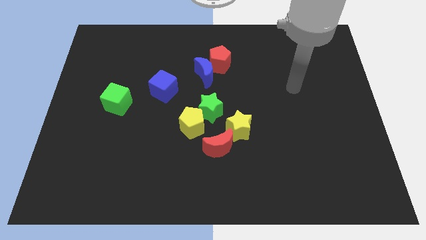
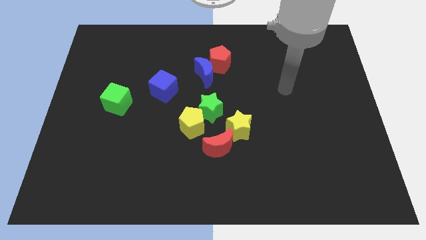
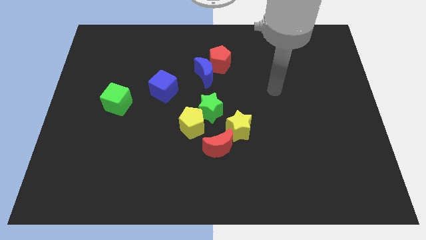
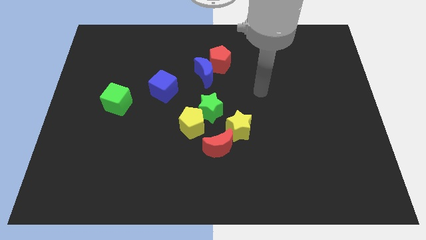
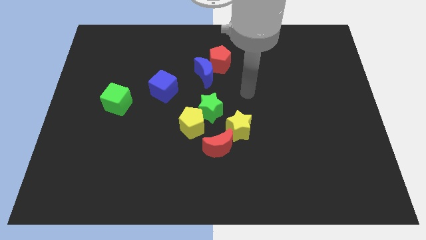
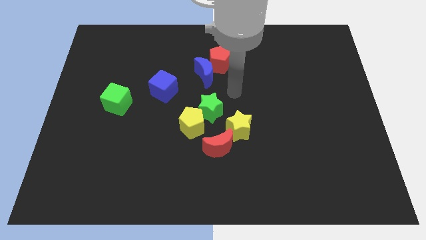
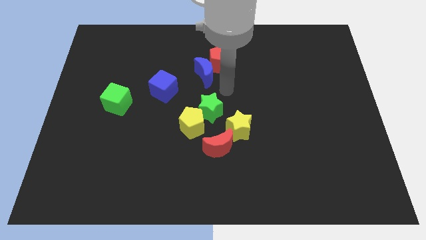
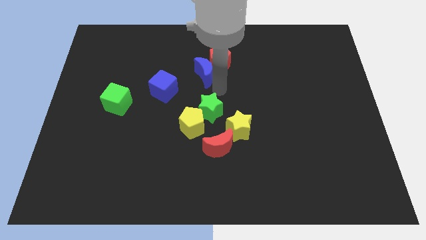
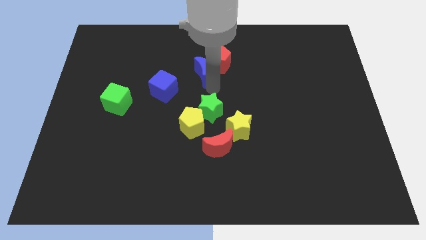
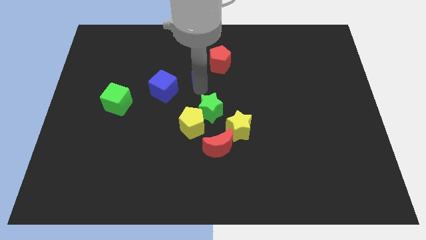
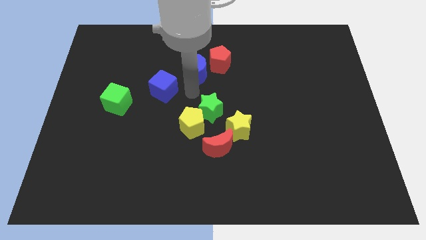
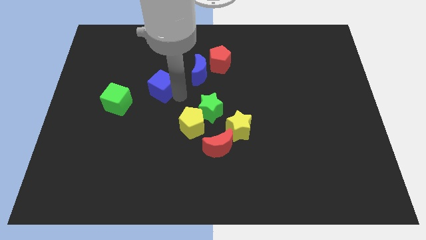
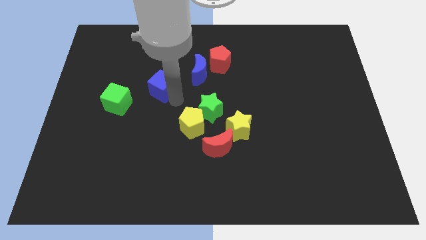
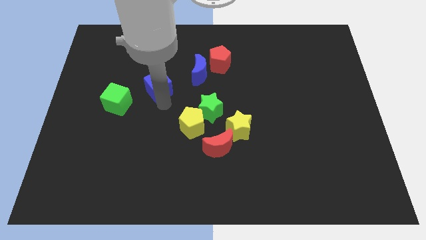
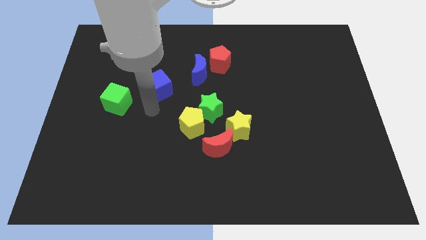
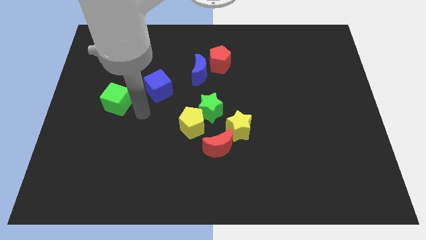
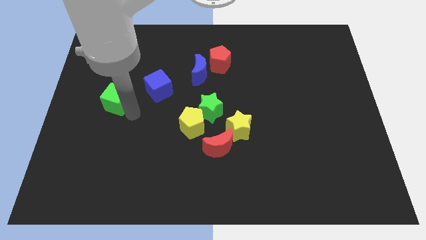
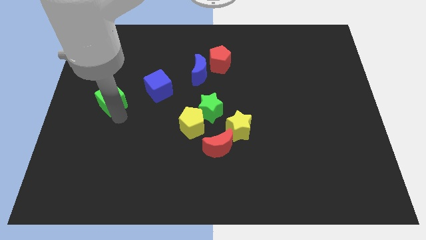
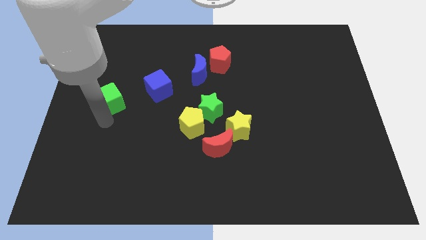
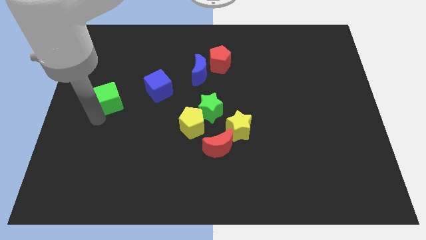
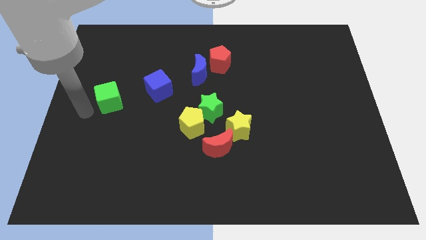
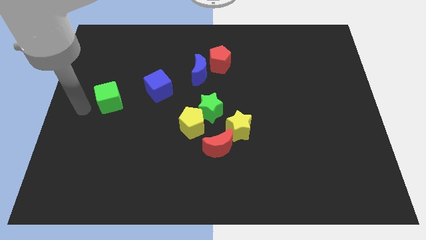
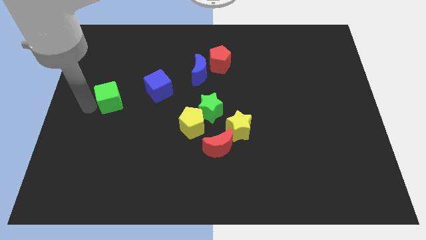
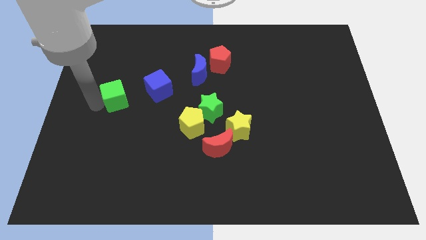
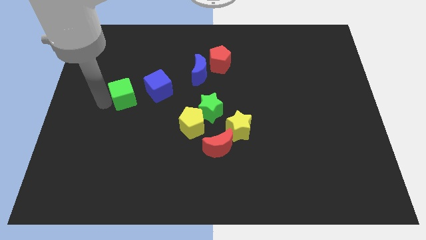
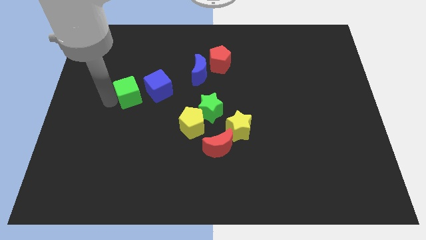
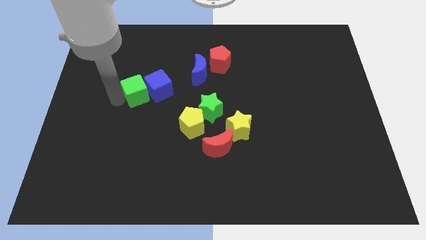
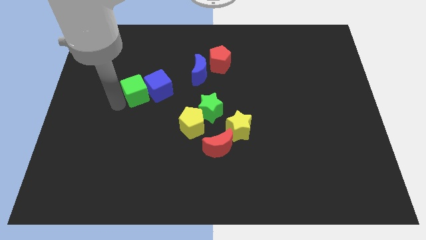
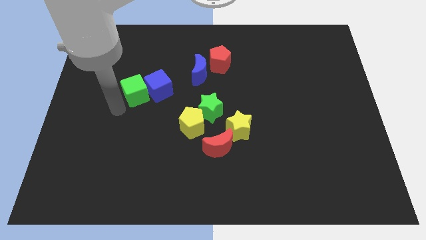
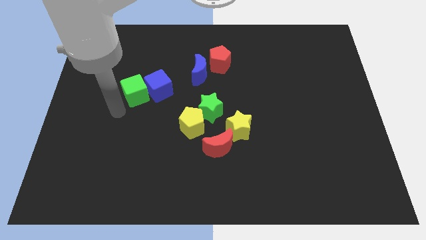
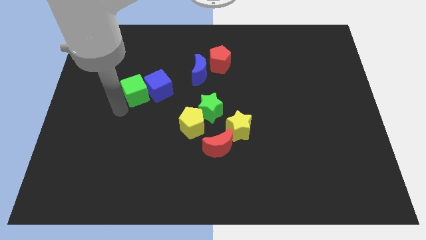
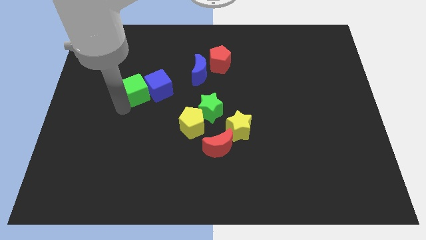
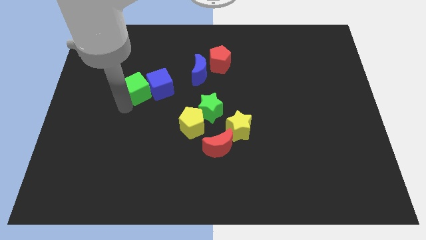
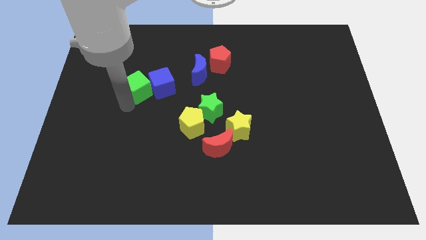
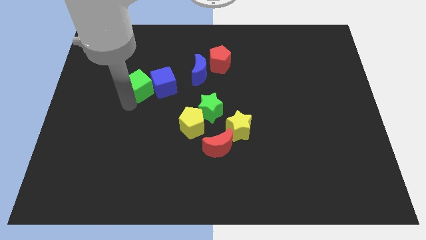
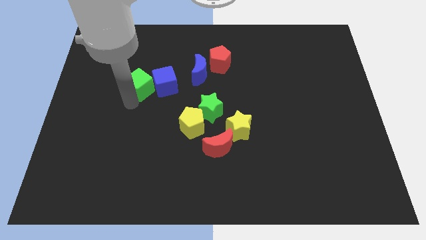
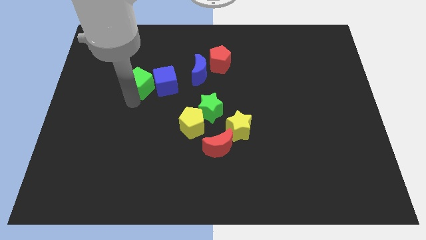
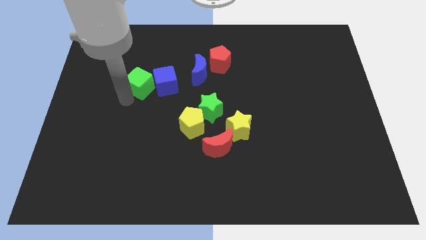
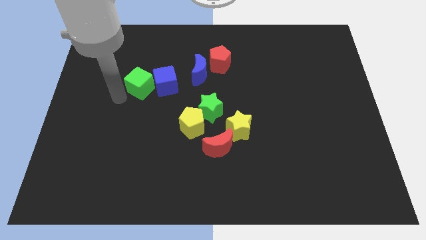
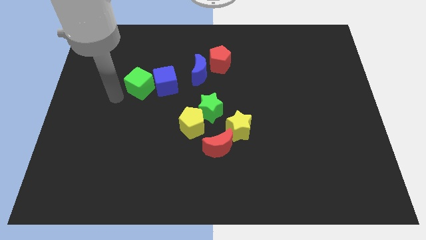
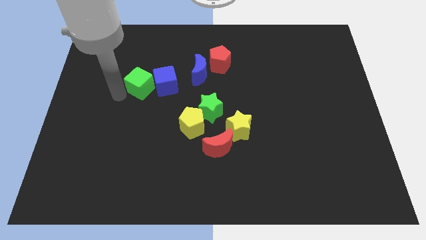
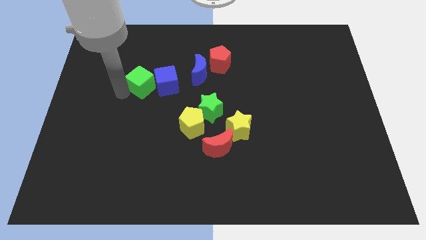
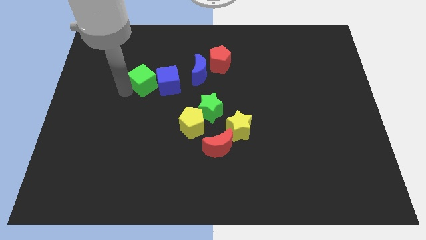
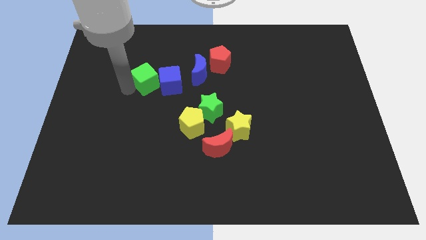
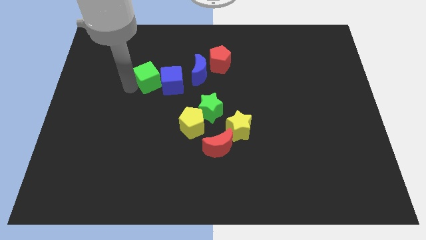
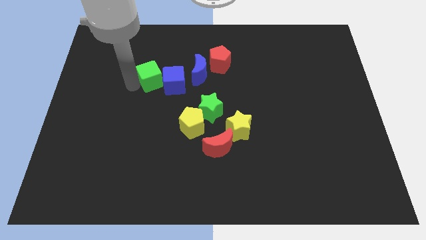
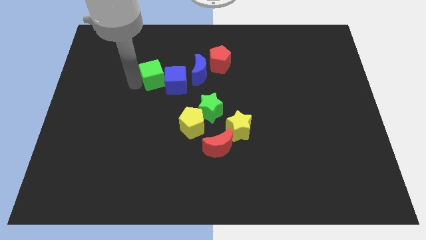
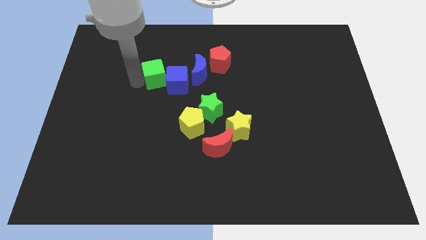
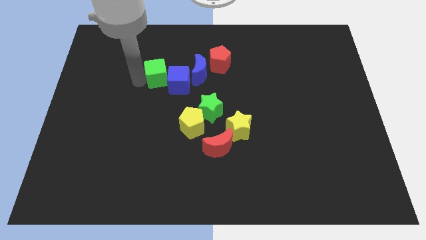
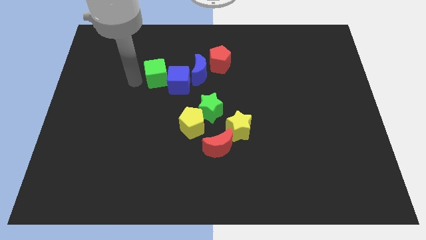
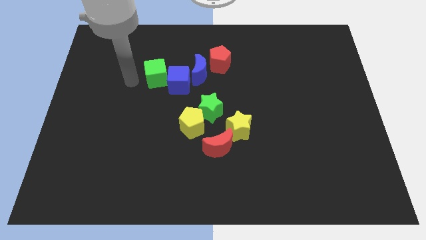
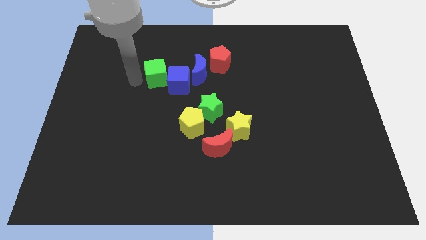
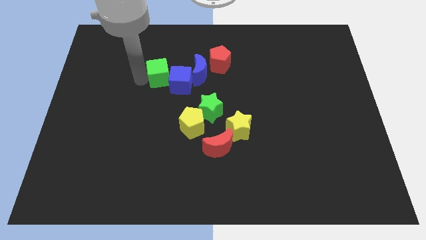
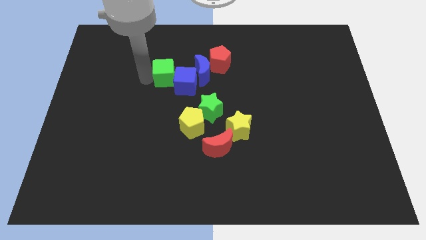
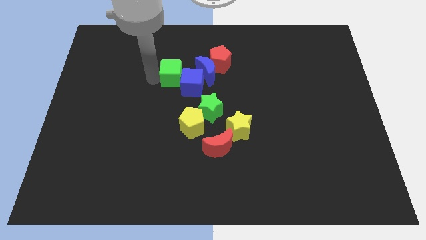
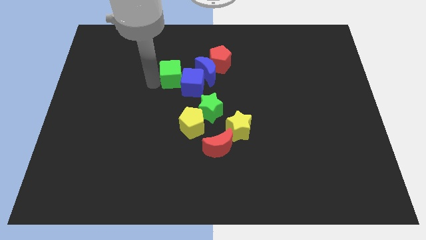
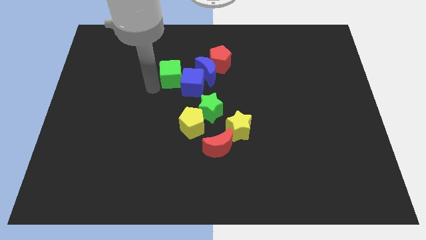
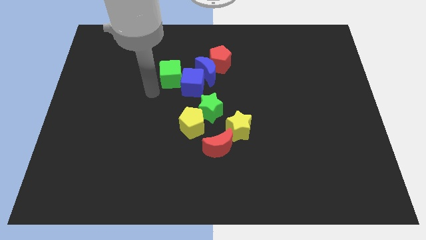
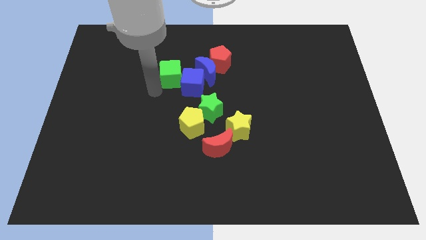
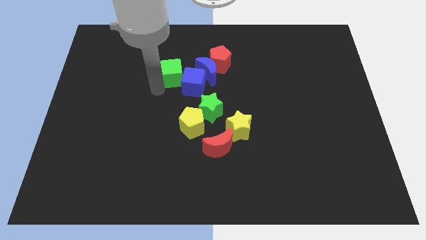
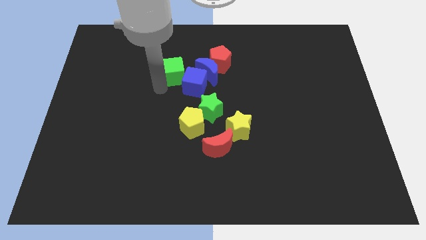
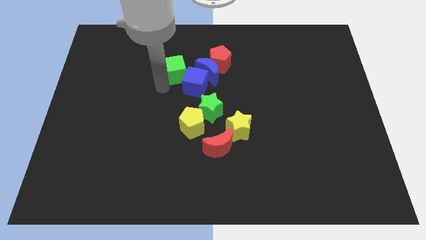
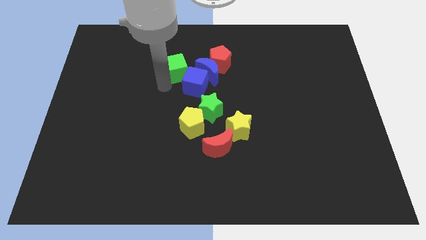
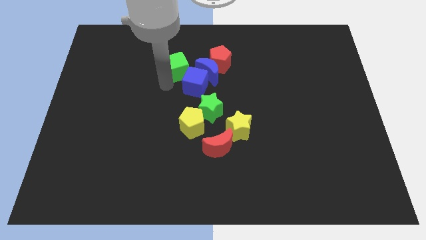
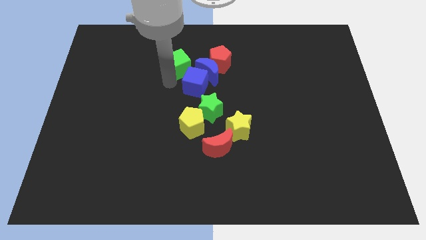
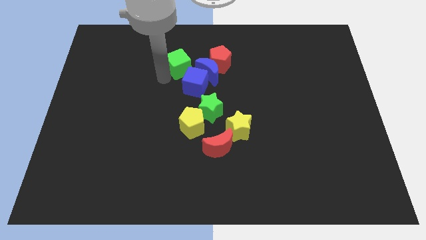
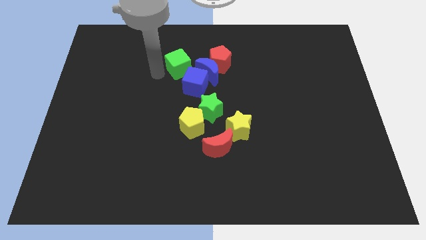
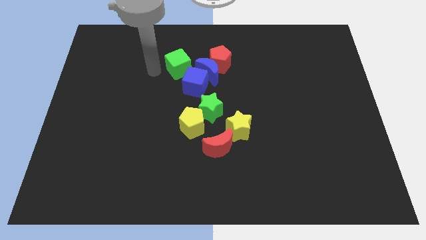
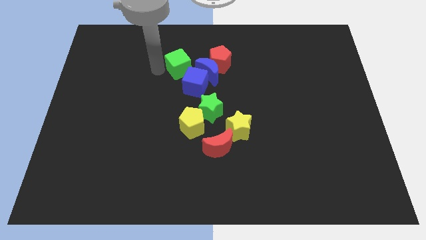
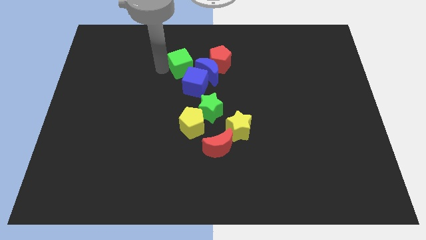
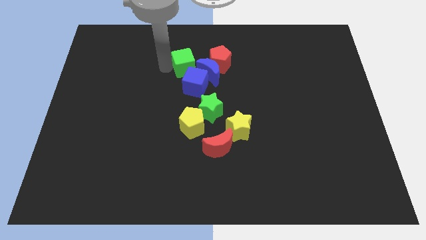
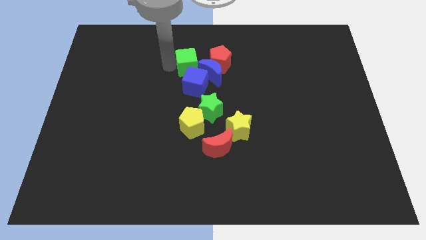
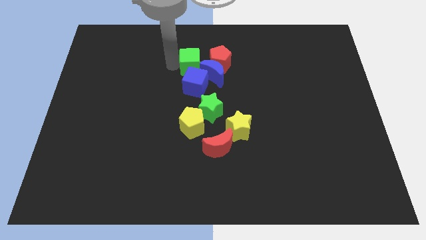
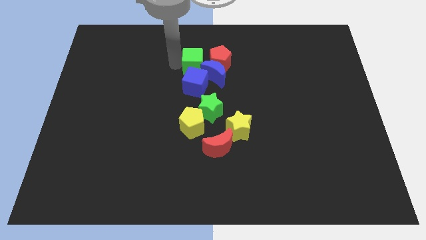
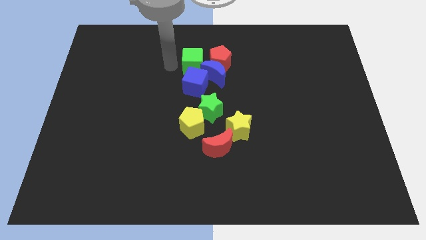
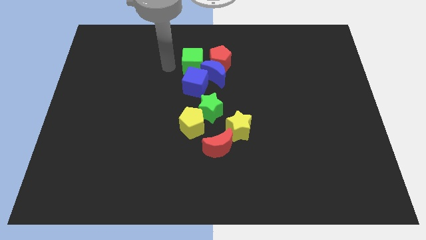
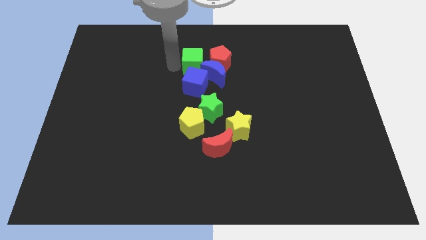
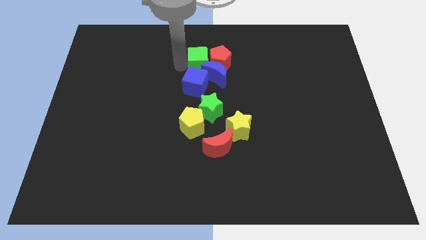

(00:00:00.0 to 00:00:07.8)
slide the green cube close to the red pentagon

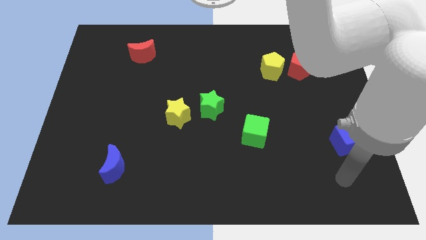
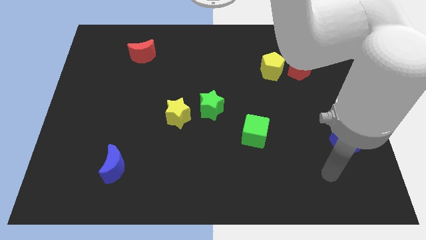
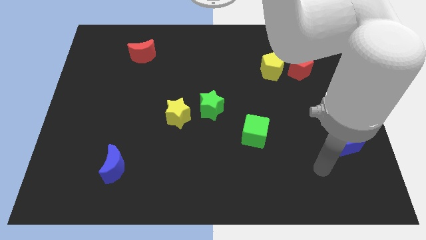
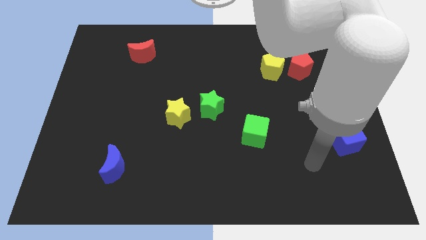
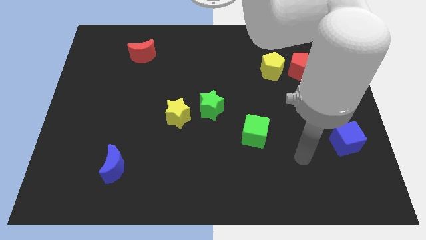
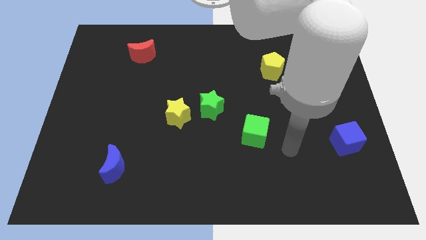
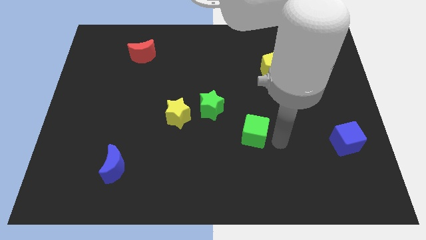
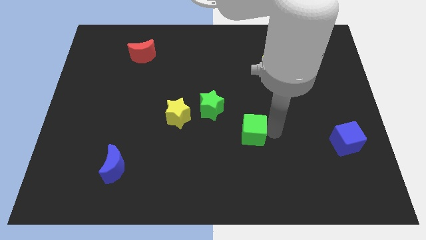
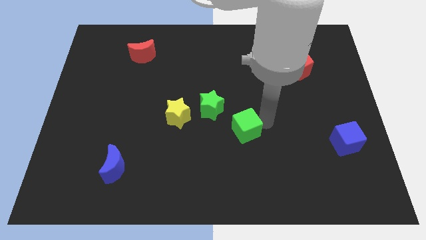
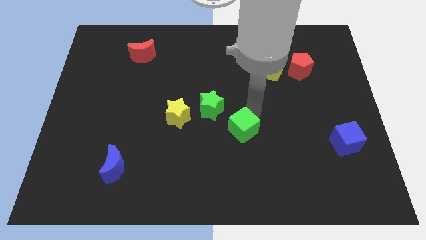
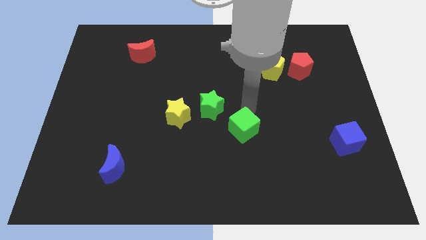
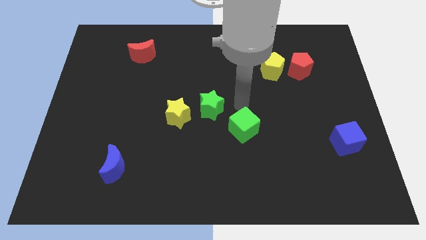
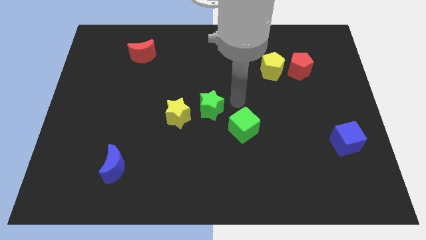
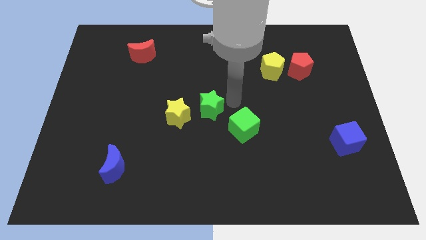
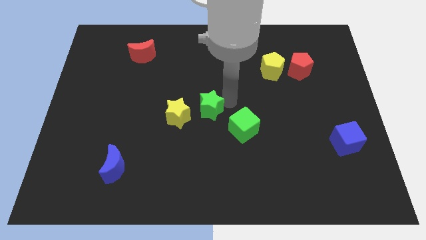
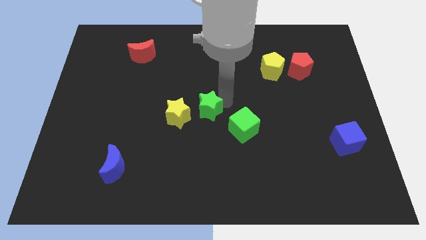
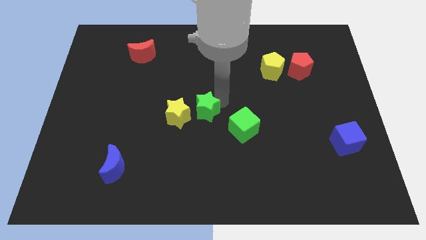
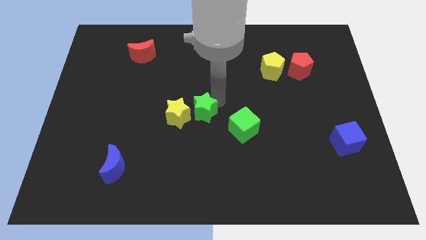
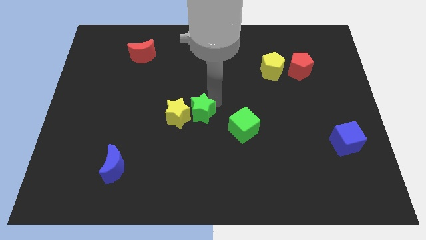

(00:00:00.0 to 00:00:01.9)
move the green star next to the yellow star
